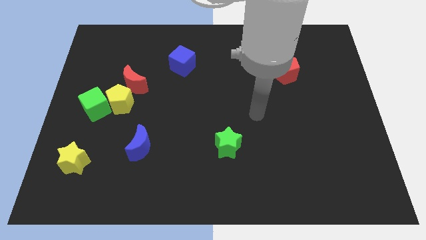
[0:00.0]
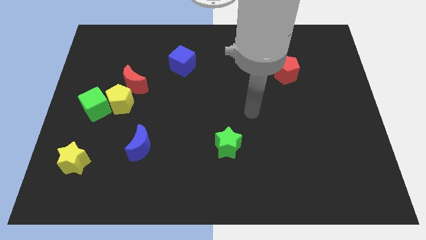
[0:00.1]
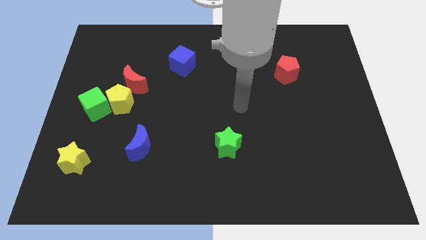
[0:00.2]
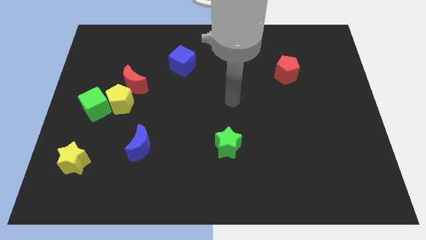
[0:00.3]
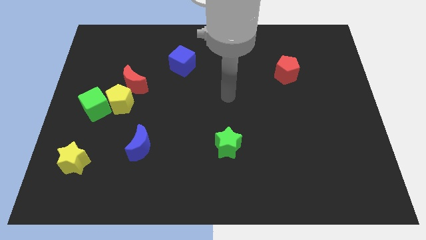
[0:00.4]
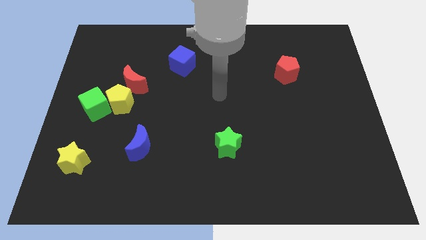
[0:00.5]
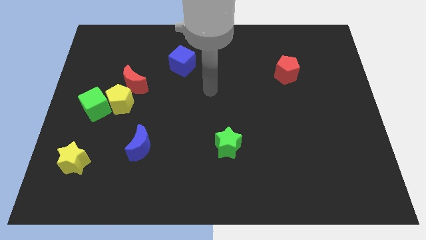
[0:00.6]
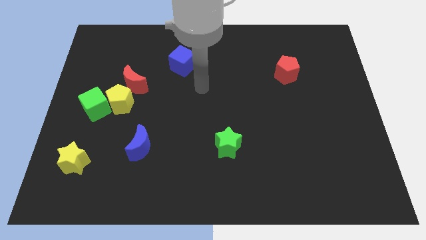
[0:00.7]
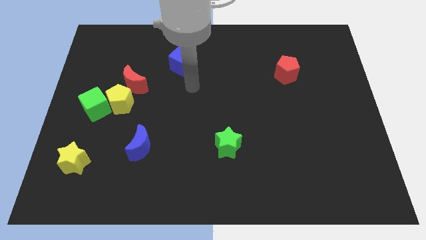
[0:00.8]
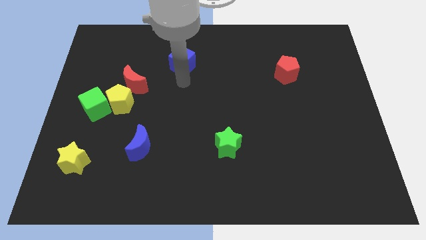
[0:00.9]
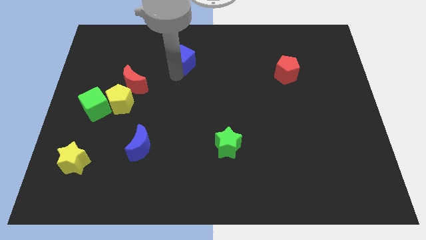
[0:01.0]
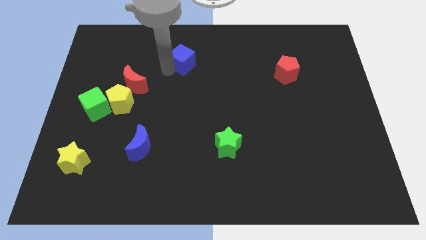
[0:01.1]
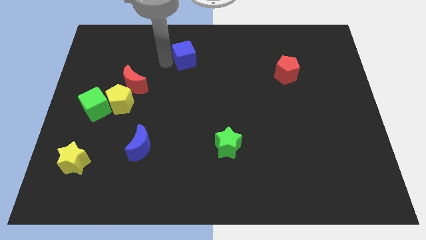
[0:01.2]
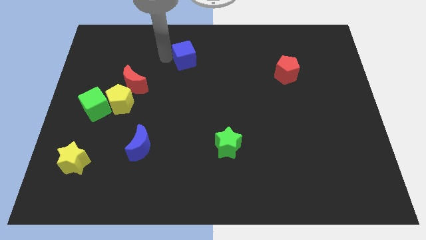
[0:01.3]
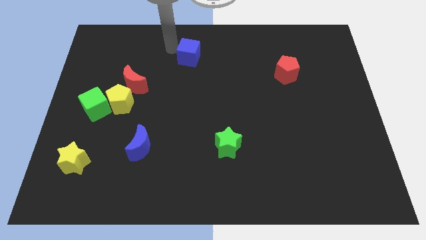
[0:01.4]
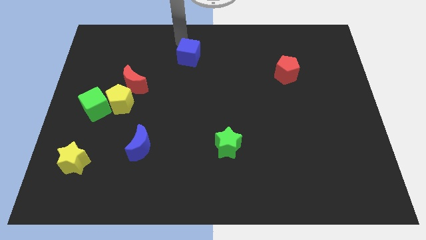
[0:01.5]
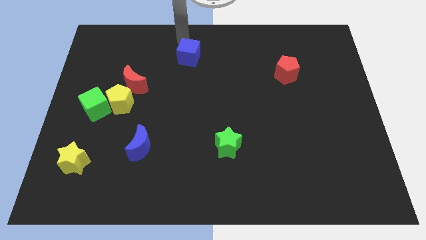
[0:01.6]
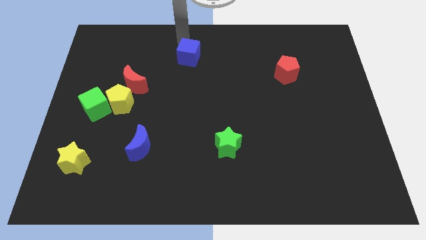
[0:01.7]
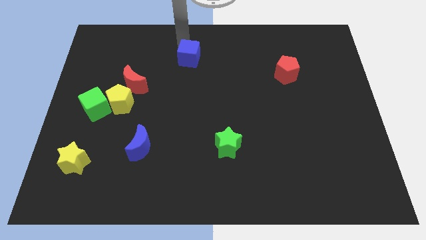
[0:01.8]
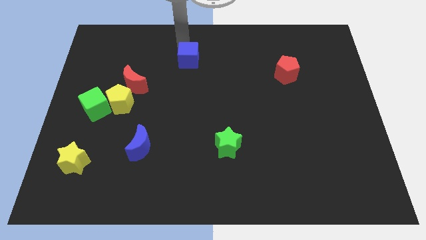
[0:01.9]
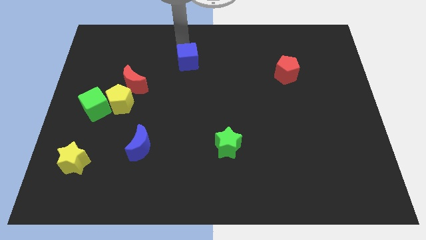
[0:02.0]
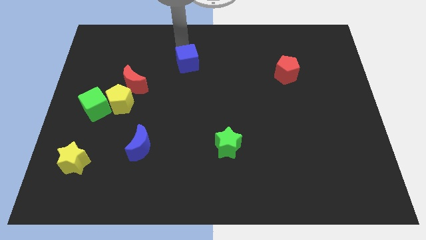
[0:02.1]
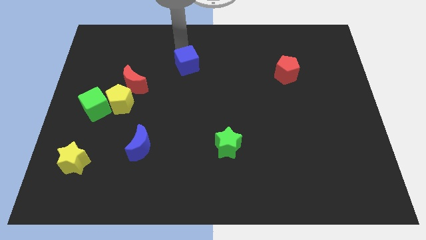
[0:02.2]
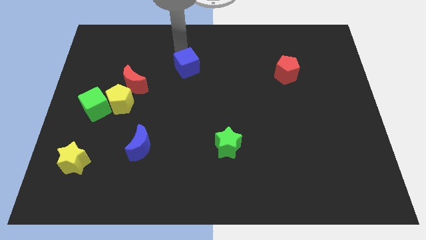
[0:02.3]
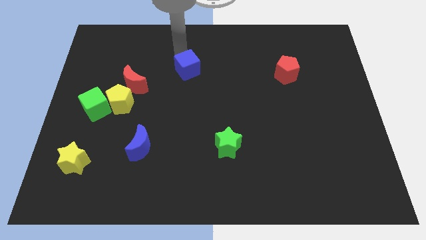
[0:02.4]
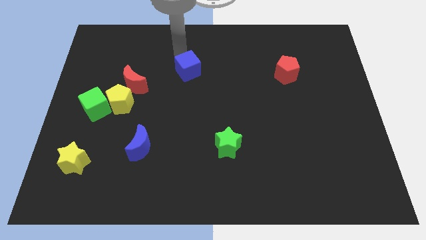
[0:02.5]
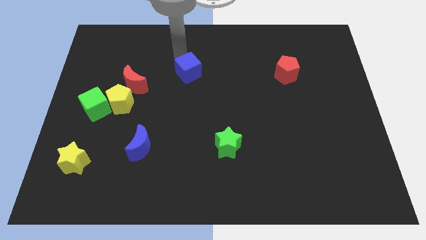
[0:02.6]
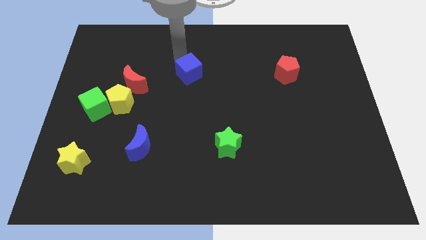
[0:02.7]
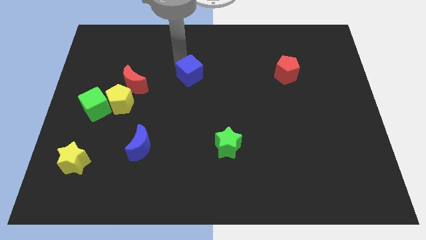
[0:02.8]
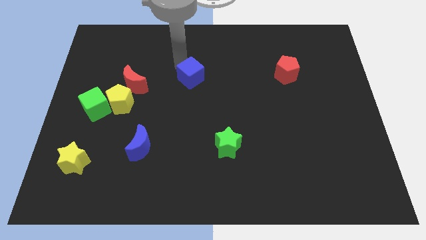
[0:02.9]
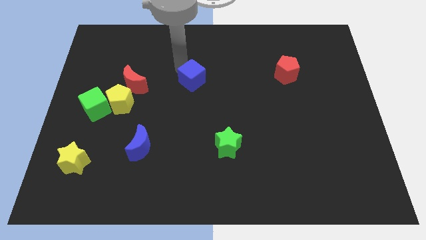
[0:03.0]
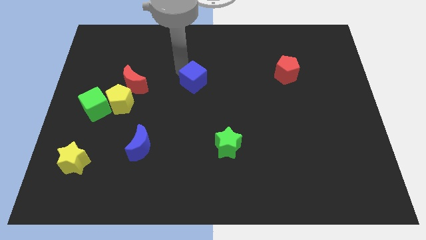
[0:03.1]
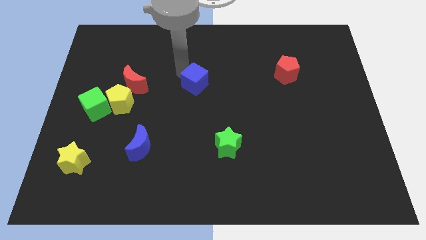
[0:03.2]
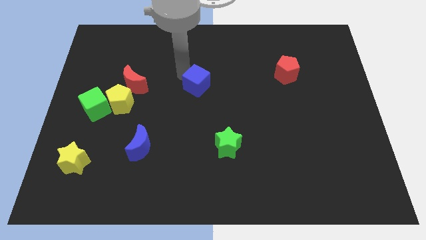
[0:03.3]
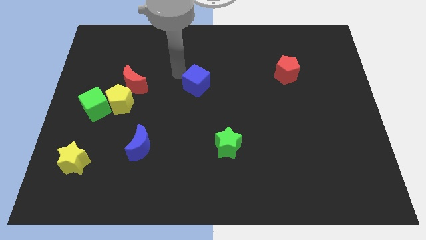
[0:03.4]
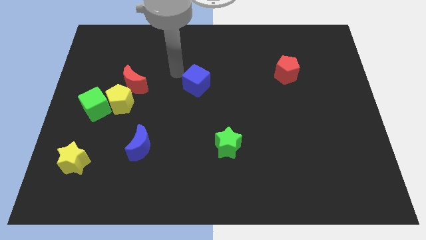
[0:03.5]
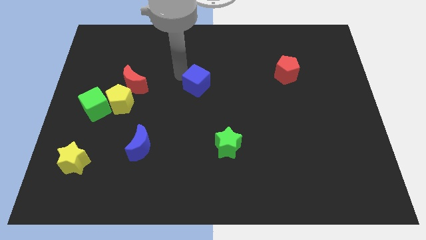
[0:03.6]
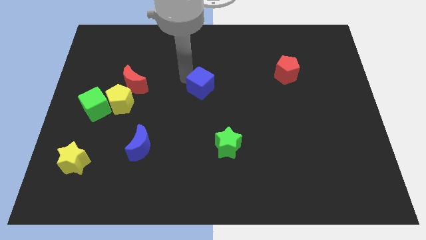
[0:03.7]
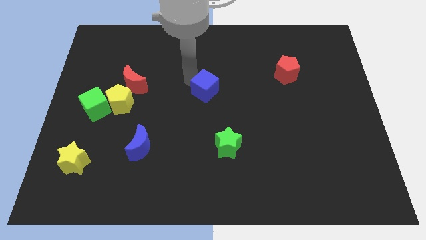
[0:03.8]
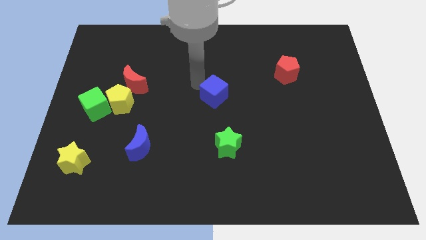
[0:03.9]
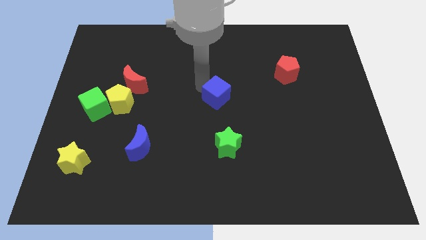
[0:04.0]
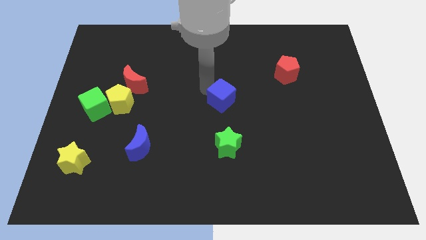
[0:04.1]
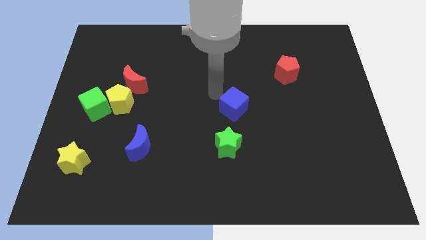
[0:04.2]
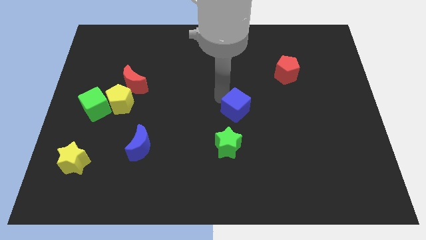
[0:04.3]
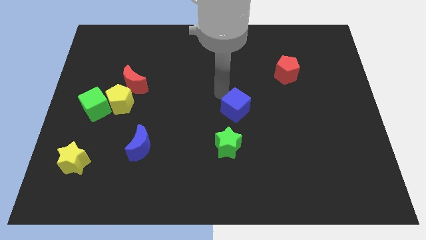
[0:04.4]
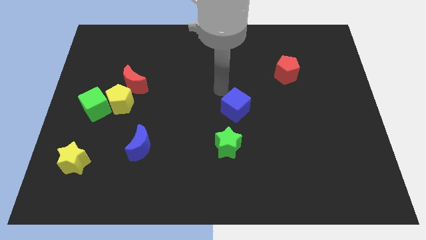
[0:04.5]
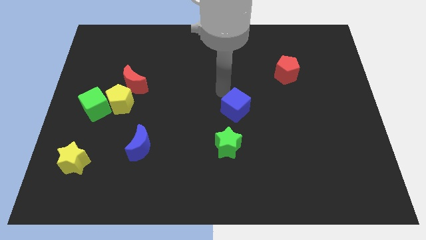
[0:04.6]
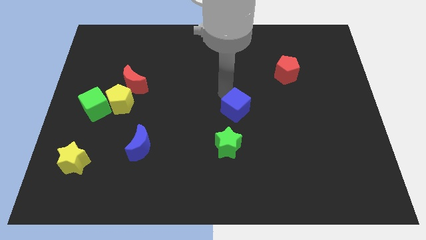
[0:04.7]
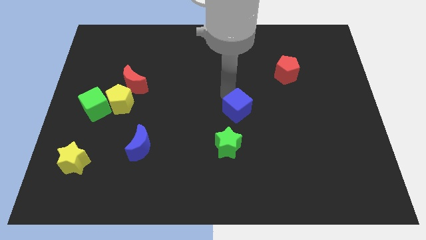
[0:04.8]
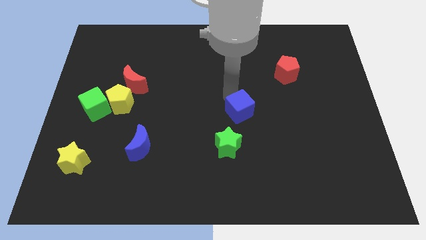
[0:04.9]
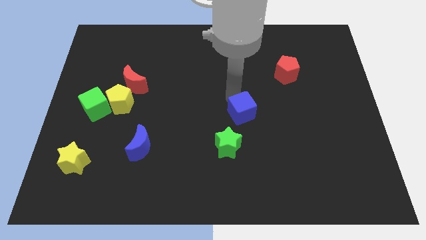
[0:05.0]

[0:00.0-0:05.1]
push the blue cube diagonally up and to the right of the green star

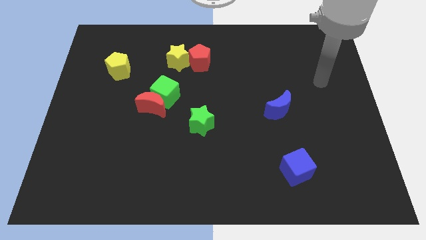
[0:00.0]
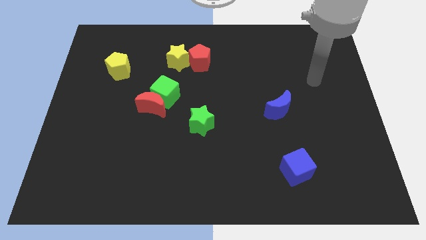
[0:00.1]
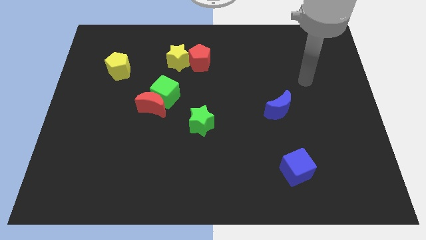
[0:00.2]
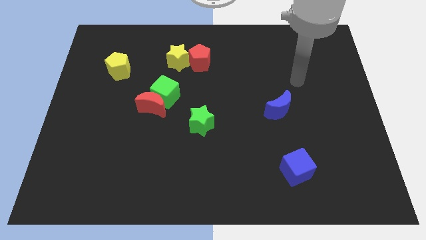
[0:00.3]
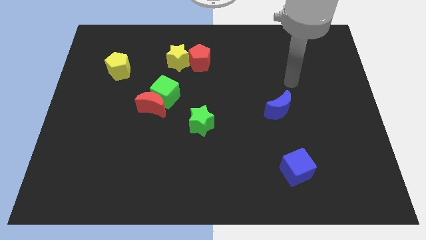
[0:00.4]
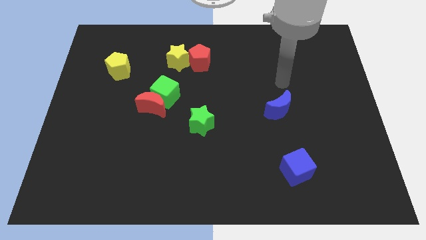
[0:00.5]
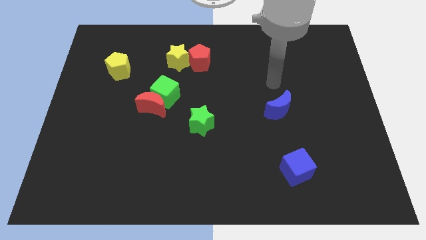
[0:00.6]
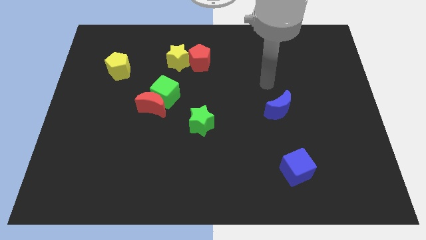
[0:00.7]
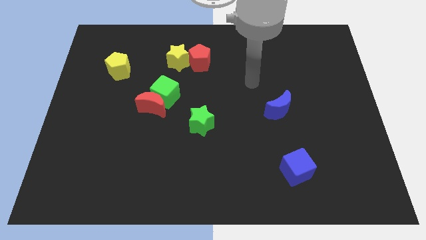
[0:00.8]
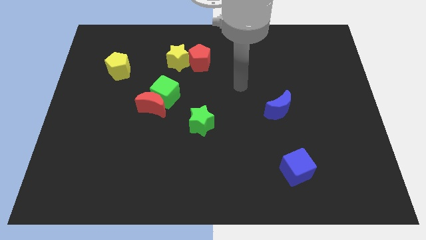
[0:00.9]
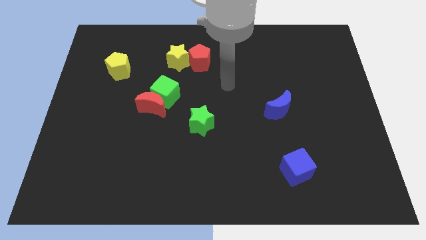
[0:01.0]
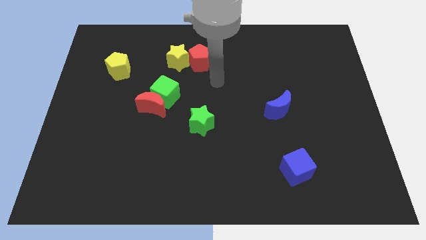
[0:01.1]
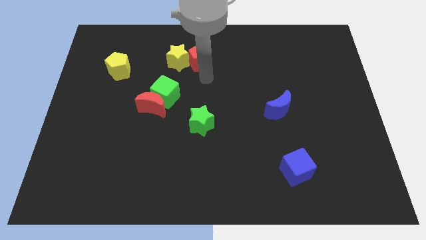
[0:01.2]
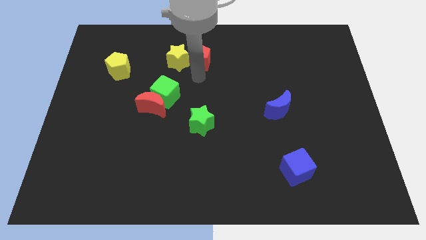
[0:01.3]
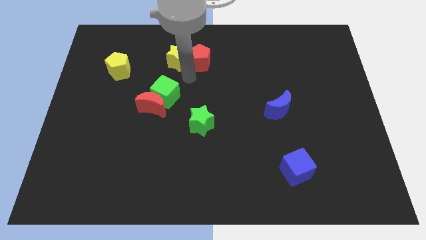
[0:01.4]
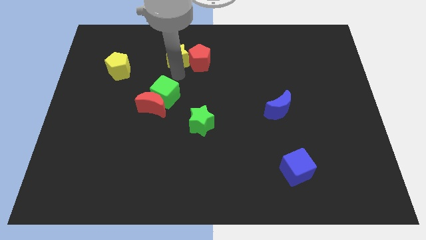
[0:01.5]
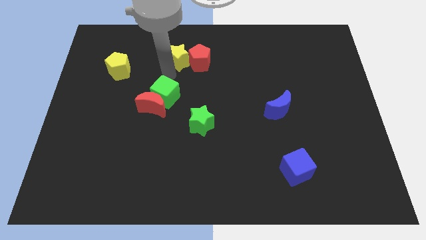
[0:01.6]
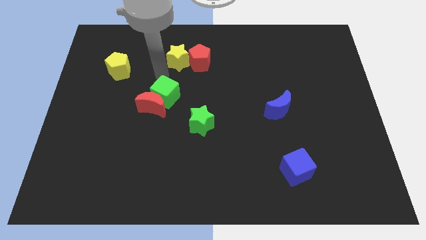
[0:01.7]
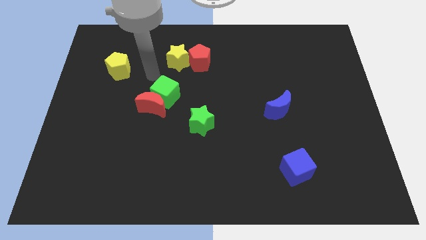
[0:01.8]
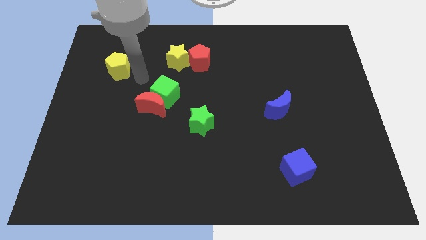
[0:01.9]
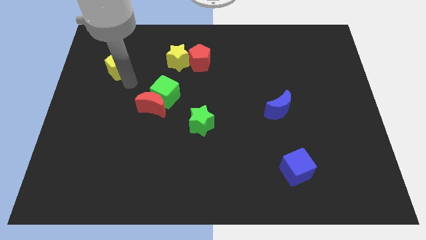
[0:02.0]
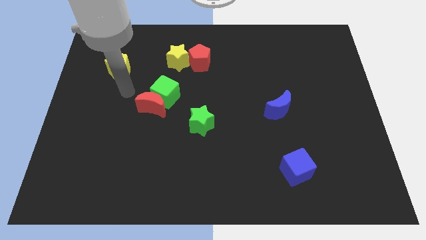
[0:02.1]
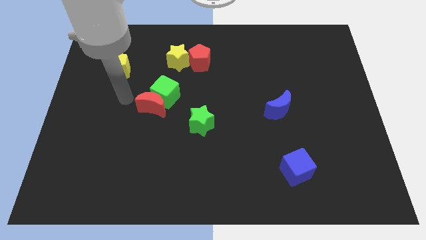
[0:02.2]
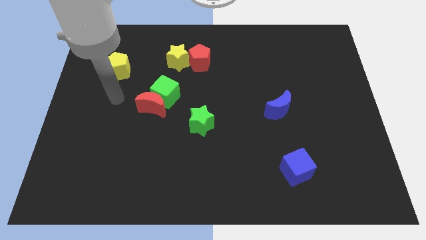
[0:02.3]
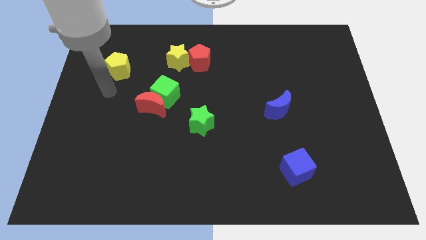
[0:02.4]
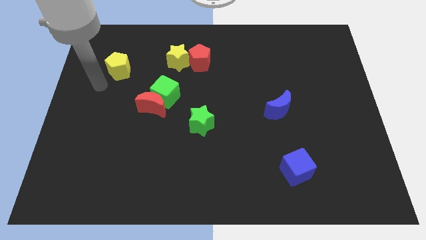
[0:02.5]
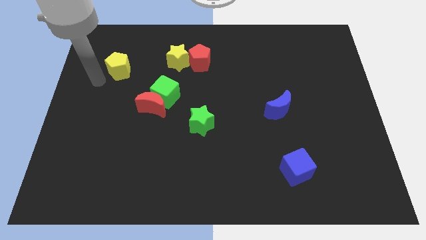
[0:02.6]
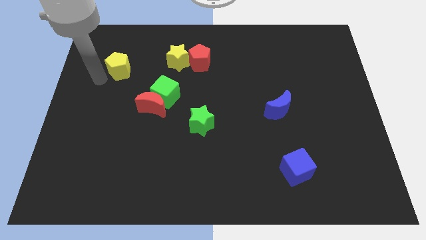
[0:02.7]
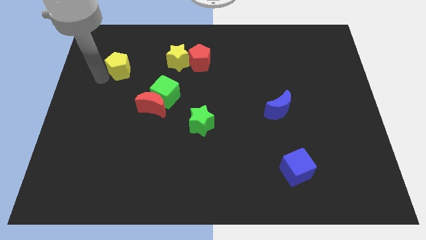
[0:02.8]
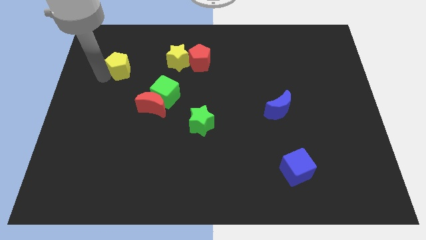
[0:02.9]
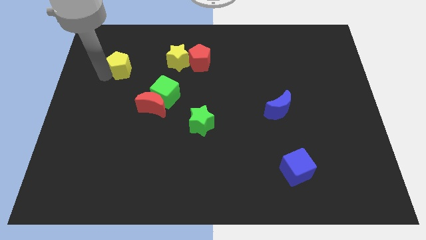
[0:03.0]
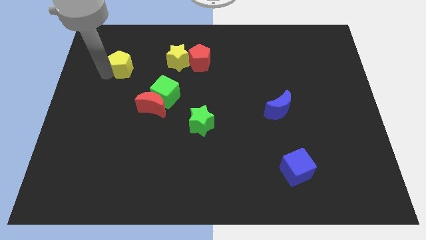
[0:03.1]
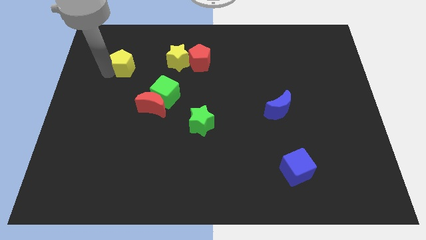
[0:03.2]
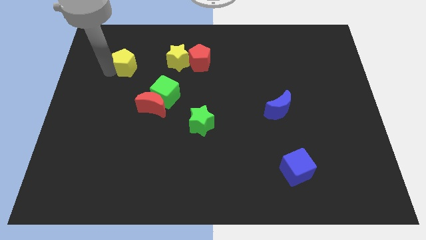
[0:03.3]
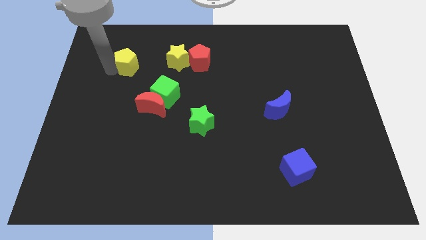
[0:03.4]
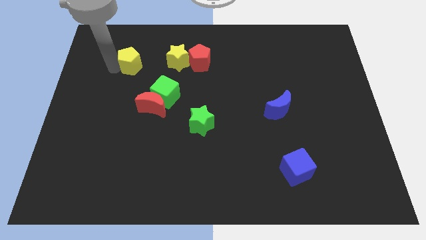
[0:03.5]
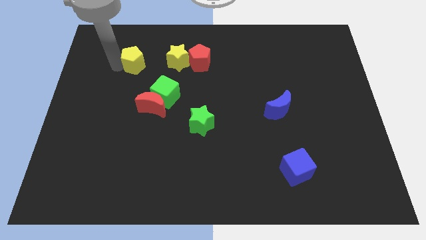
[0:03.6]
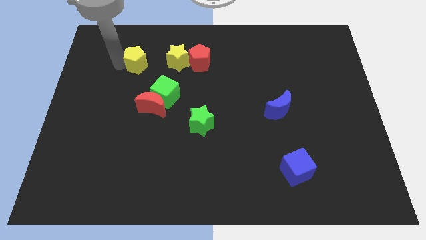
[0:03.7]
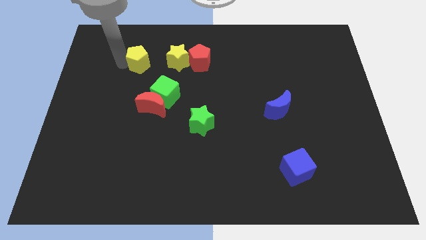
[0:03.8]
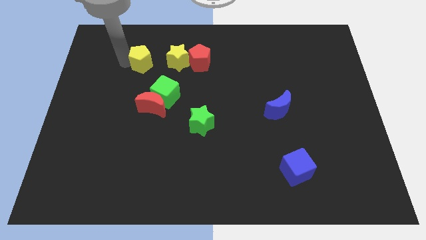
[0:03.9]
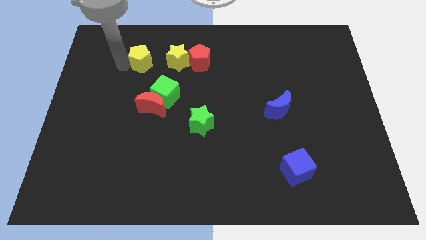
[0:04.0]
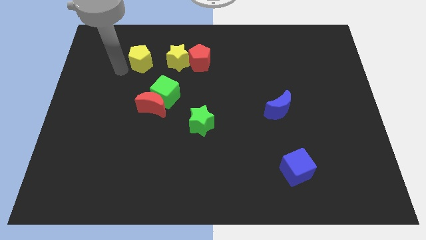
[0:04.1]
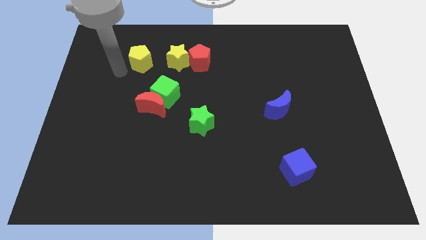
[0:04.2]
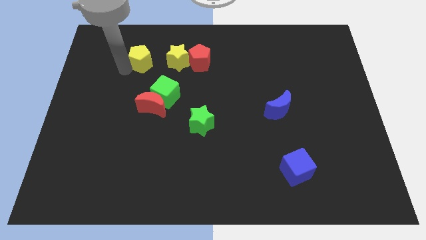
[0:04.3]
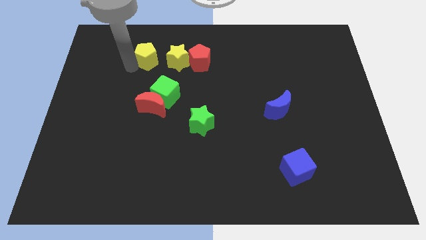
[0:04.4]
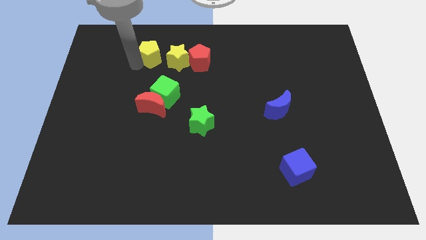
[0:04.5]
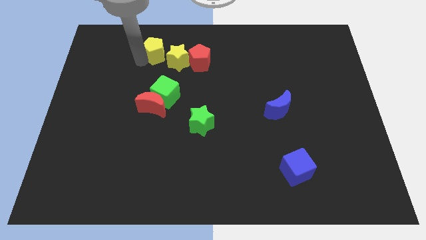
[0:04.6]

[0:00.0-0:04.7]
move the yellow pentagon to the top of the green cube
